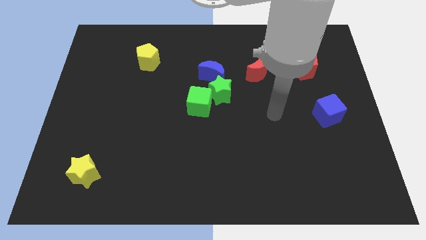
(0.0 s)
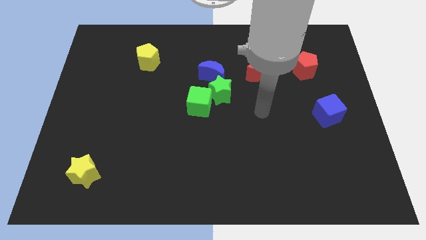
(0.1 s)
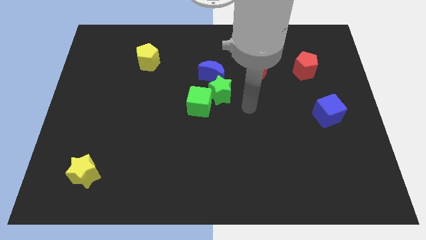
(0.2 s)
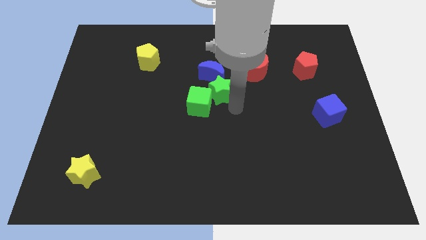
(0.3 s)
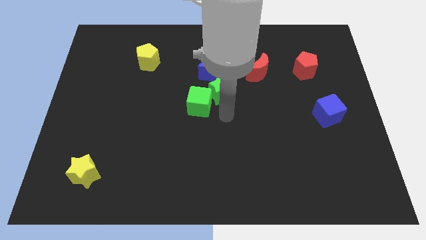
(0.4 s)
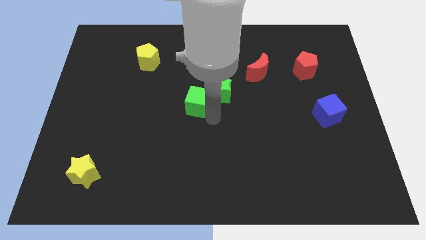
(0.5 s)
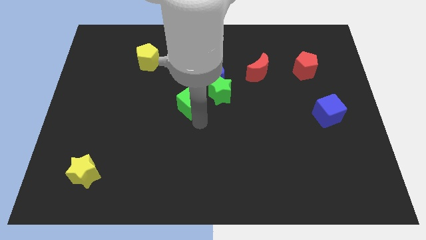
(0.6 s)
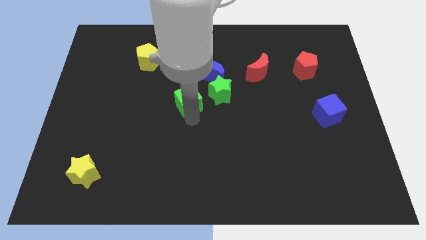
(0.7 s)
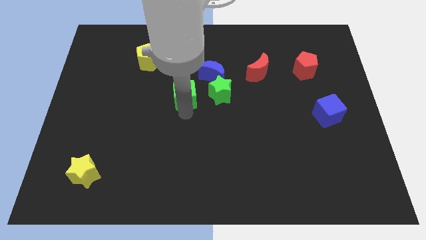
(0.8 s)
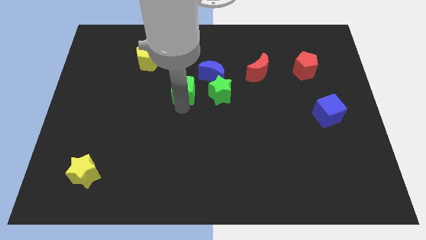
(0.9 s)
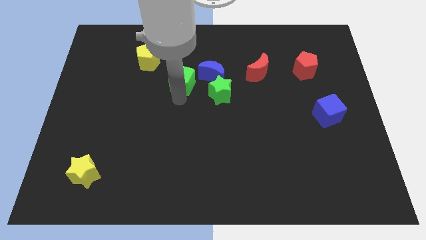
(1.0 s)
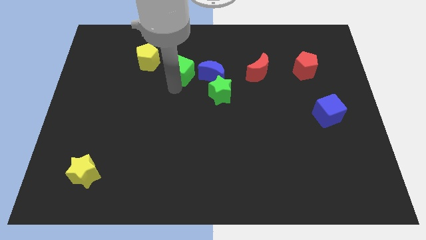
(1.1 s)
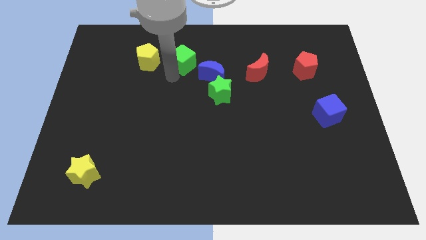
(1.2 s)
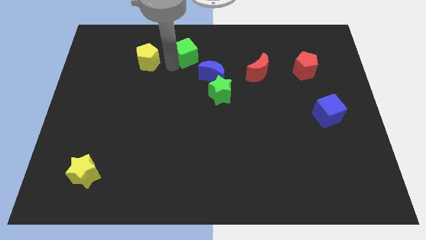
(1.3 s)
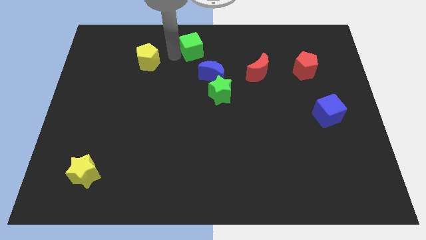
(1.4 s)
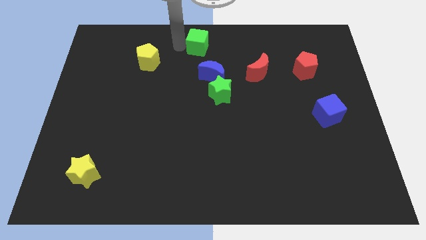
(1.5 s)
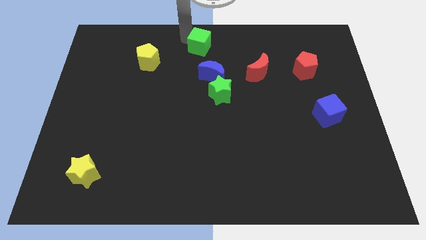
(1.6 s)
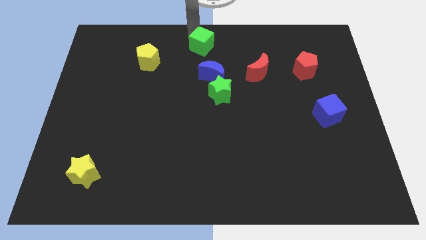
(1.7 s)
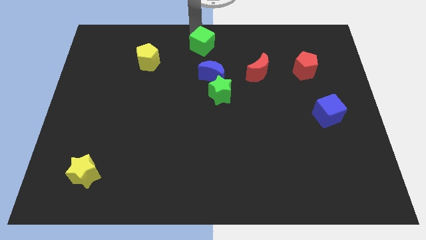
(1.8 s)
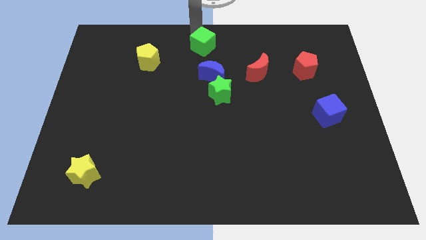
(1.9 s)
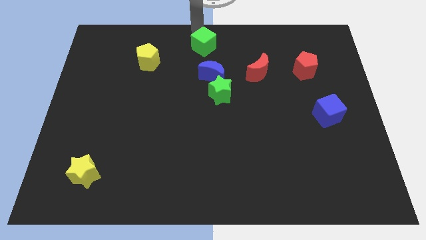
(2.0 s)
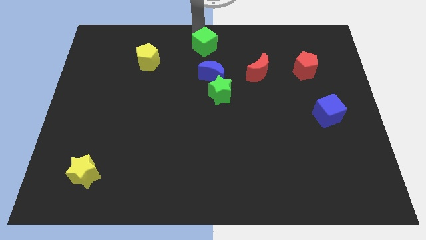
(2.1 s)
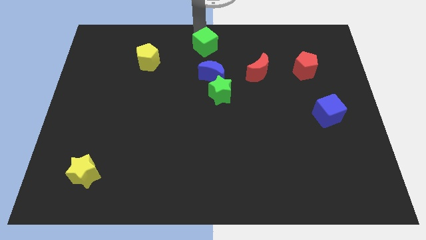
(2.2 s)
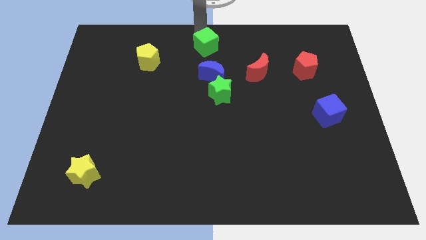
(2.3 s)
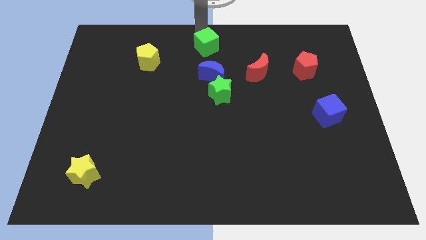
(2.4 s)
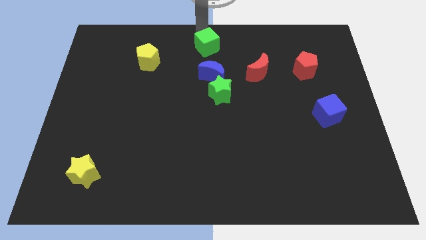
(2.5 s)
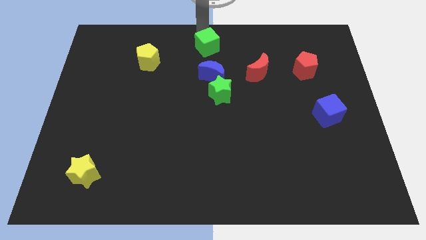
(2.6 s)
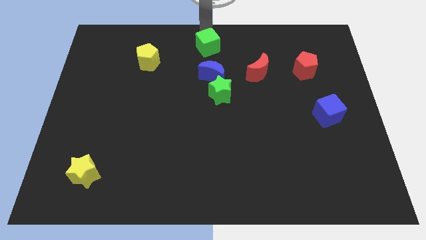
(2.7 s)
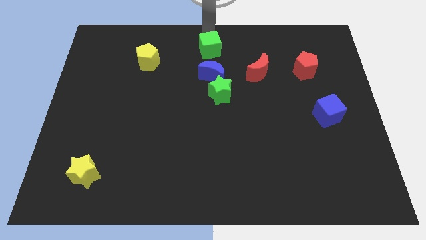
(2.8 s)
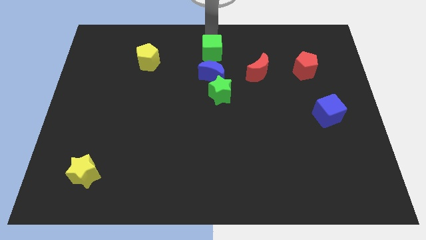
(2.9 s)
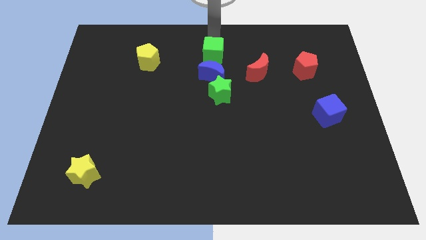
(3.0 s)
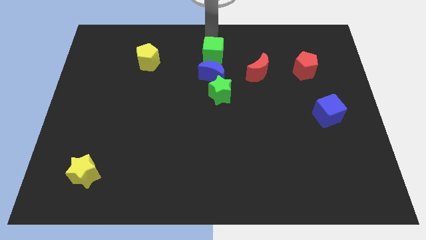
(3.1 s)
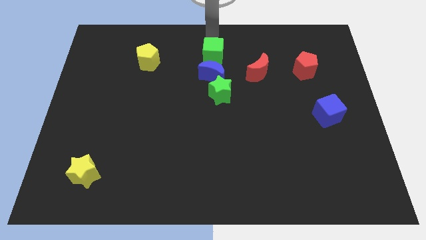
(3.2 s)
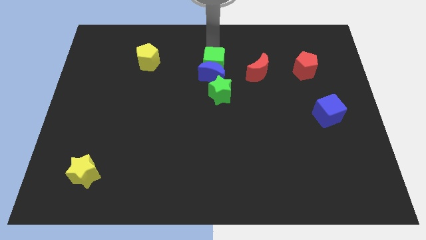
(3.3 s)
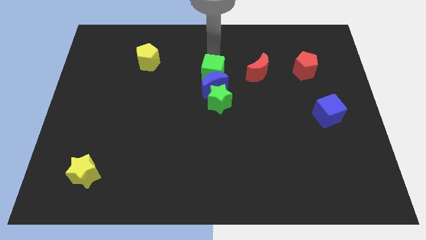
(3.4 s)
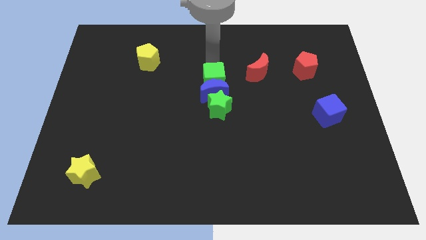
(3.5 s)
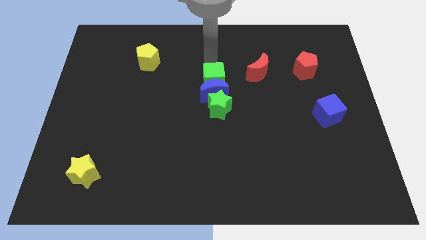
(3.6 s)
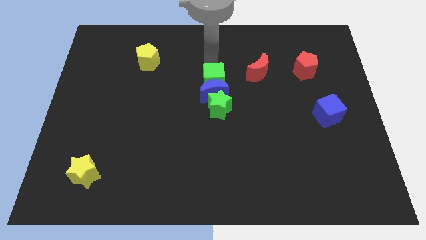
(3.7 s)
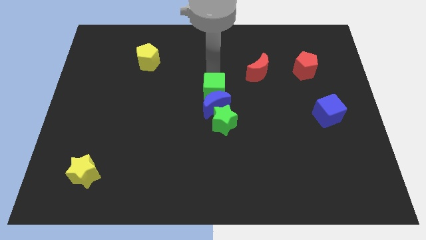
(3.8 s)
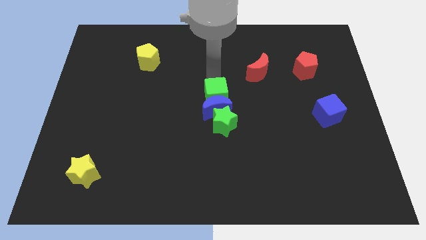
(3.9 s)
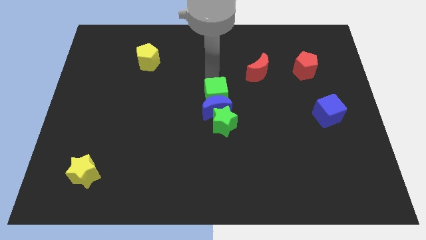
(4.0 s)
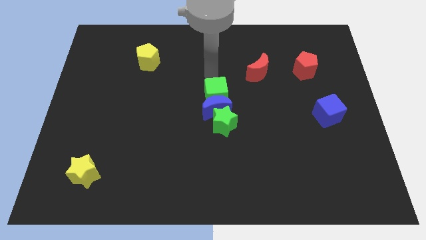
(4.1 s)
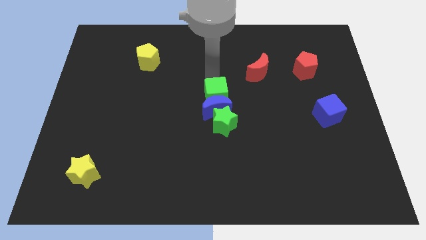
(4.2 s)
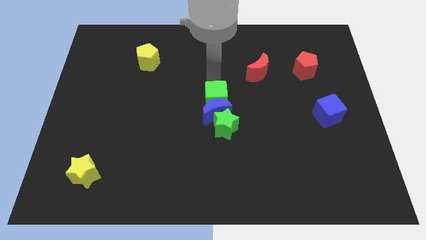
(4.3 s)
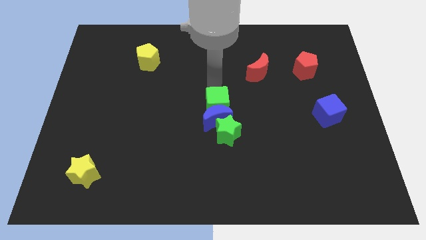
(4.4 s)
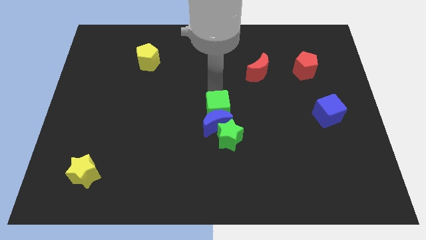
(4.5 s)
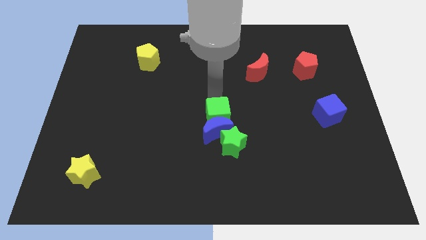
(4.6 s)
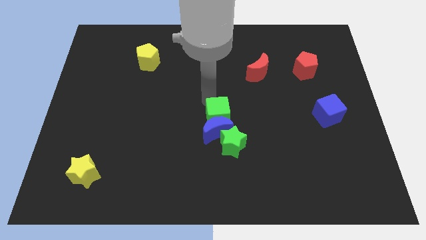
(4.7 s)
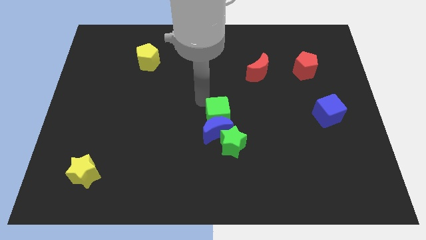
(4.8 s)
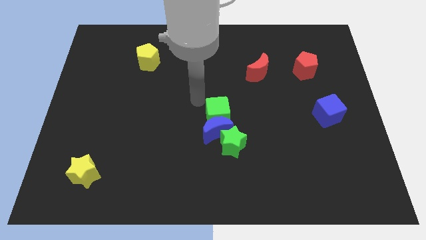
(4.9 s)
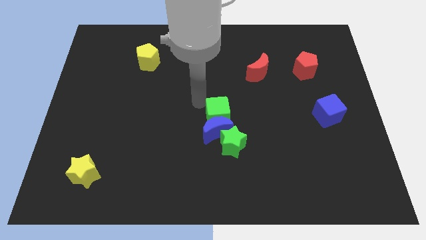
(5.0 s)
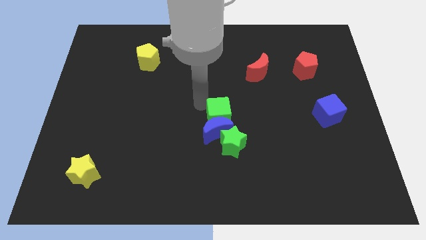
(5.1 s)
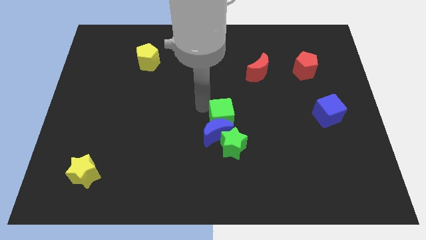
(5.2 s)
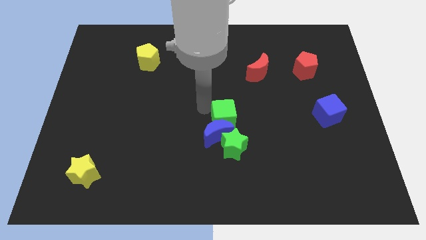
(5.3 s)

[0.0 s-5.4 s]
move the green cube diagonally down and right somewhat

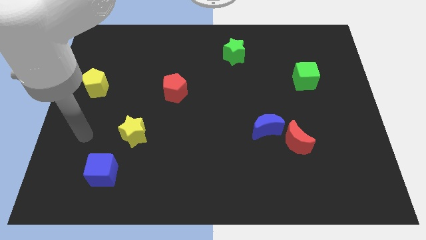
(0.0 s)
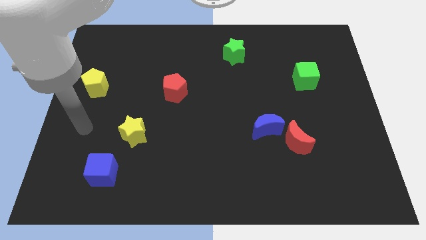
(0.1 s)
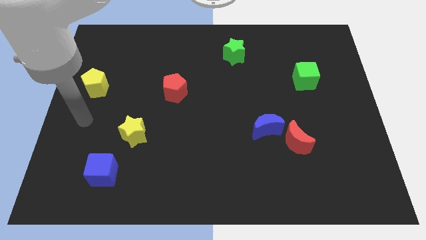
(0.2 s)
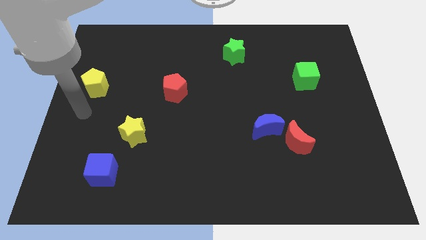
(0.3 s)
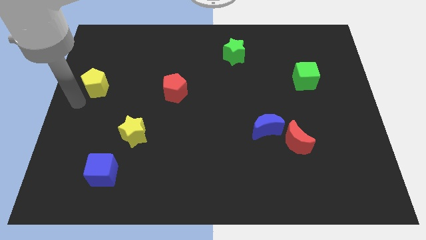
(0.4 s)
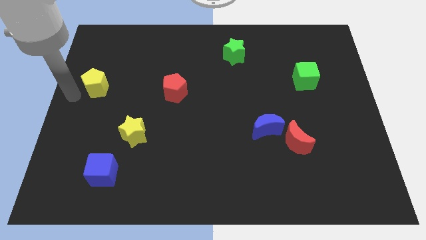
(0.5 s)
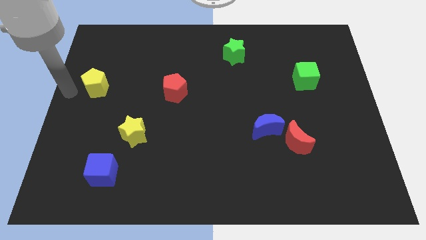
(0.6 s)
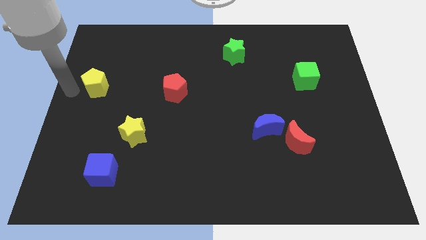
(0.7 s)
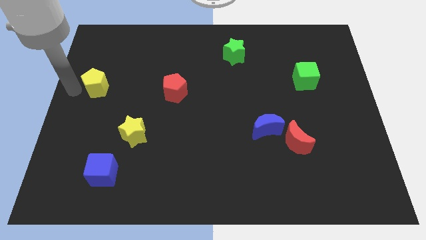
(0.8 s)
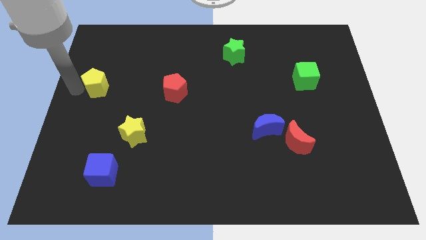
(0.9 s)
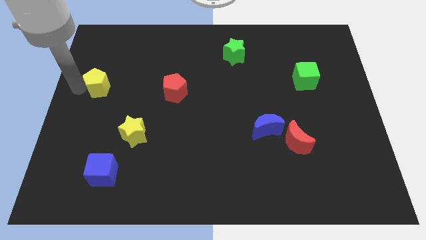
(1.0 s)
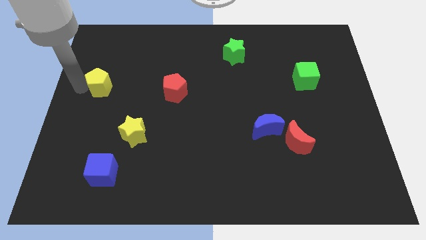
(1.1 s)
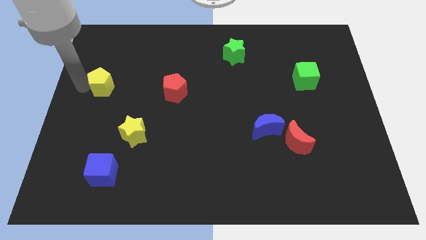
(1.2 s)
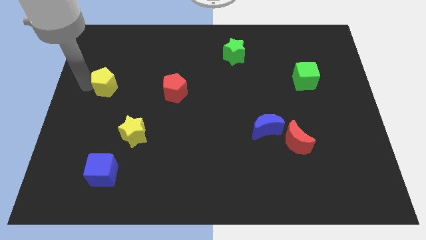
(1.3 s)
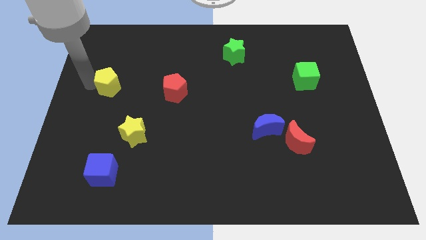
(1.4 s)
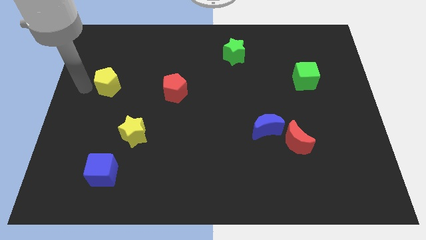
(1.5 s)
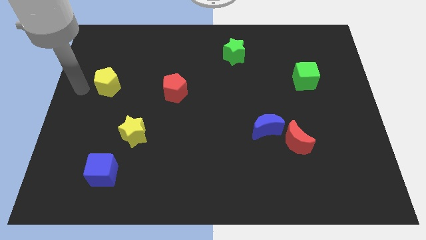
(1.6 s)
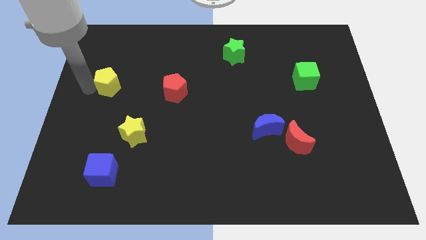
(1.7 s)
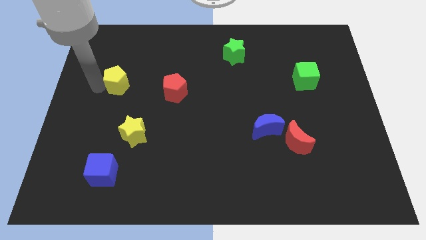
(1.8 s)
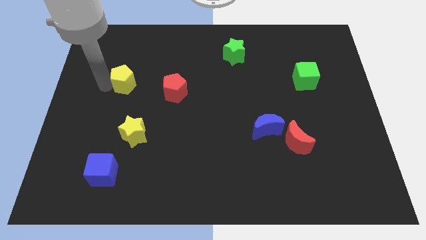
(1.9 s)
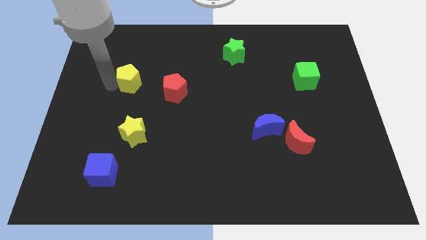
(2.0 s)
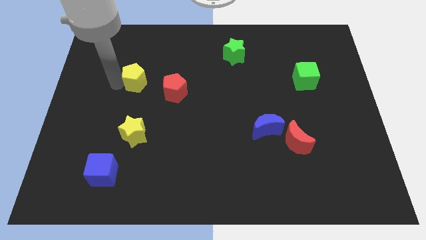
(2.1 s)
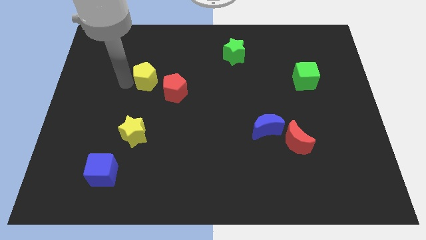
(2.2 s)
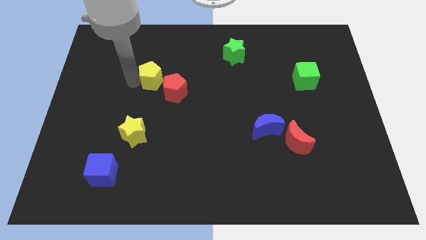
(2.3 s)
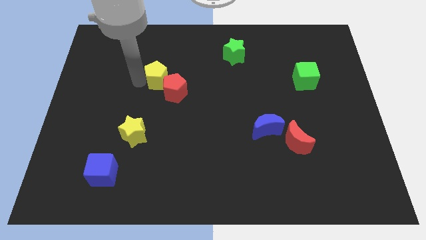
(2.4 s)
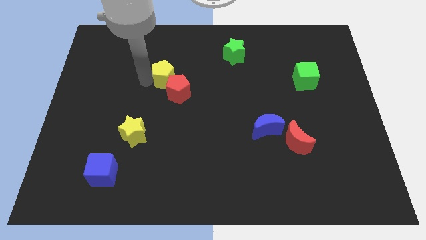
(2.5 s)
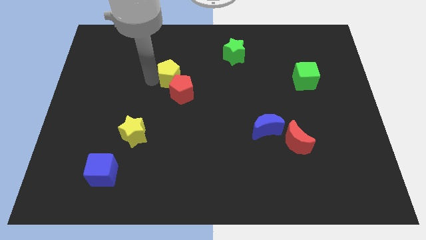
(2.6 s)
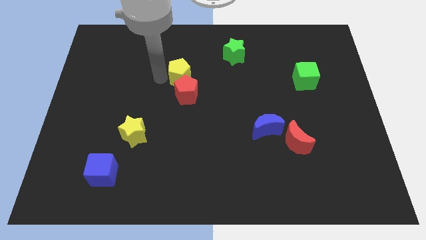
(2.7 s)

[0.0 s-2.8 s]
push the yellow pentagon right
